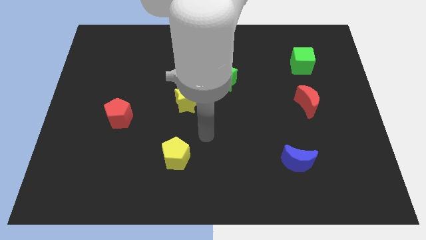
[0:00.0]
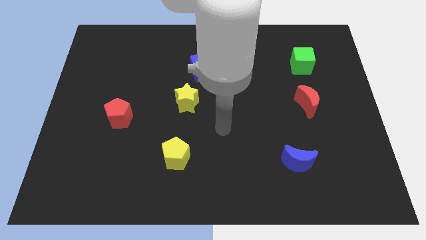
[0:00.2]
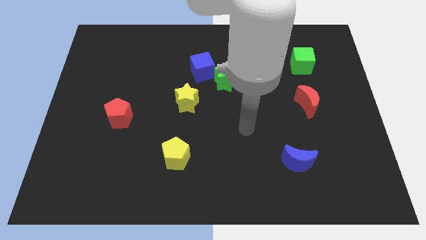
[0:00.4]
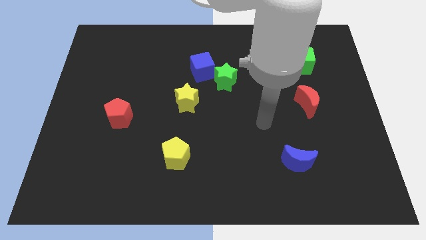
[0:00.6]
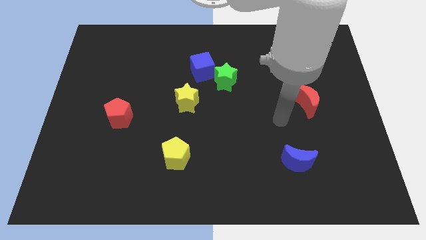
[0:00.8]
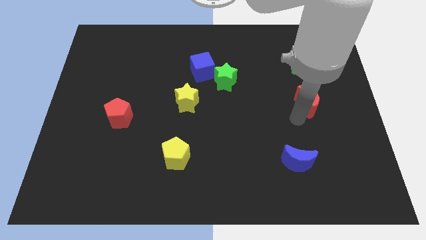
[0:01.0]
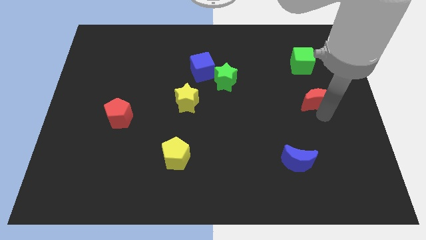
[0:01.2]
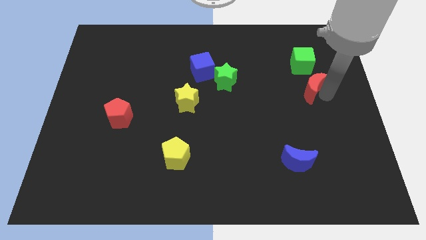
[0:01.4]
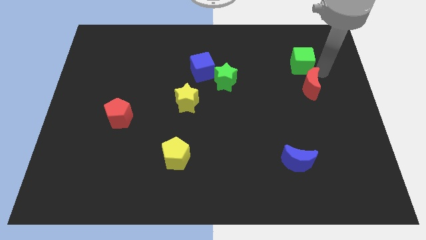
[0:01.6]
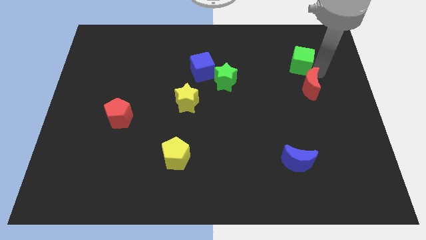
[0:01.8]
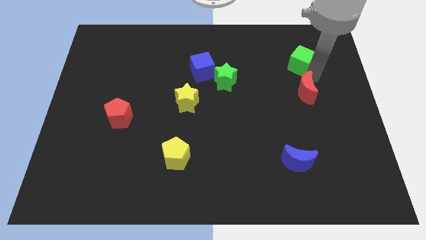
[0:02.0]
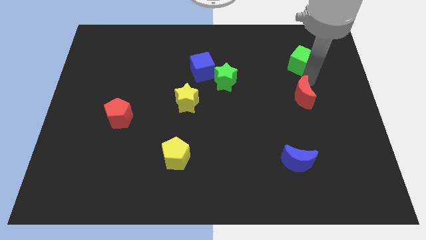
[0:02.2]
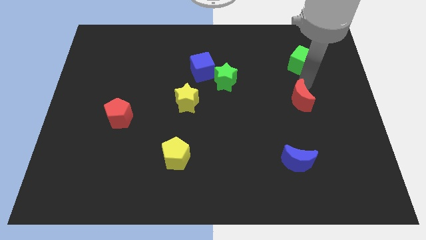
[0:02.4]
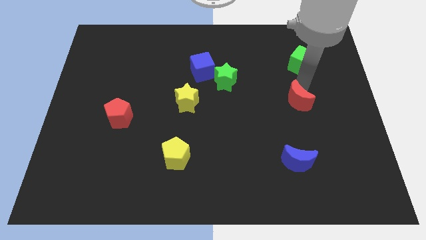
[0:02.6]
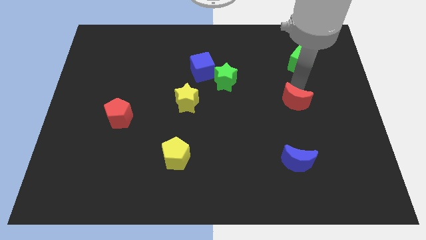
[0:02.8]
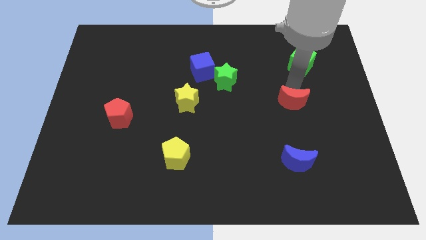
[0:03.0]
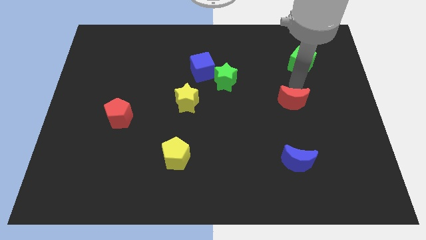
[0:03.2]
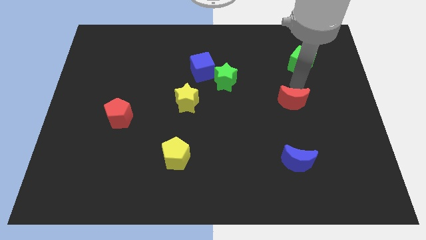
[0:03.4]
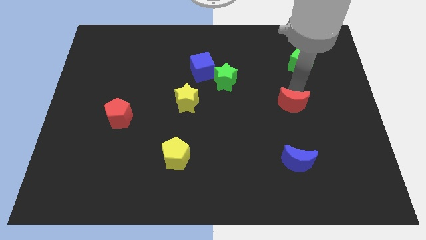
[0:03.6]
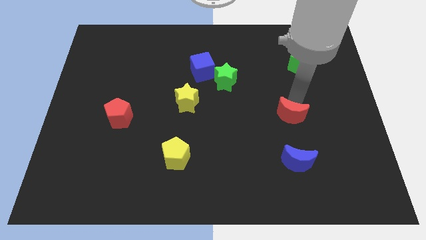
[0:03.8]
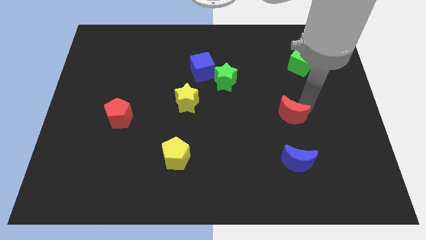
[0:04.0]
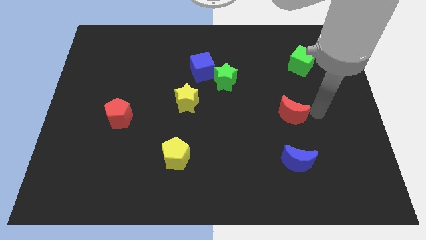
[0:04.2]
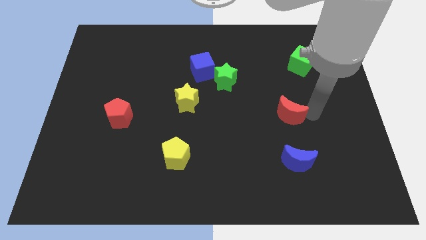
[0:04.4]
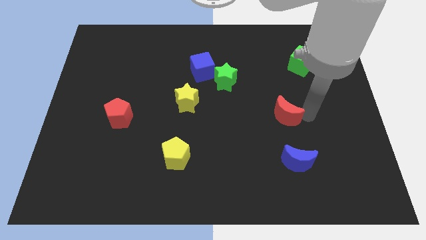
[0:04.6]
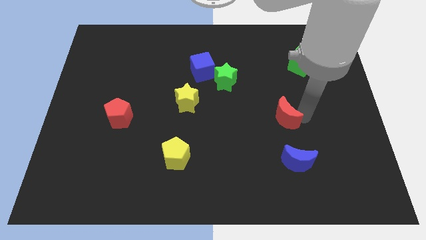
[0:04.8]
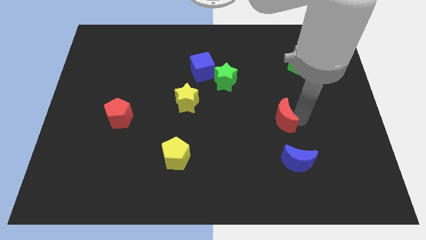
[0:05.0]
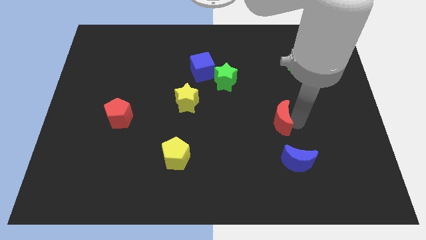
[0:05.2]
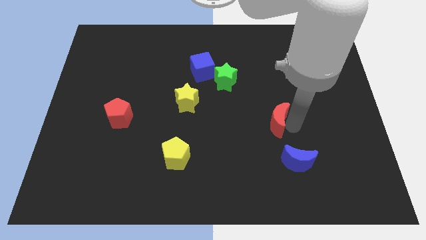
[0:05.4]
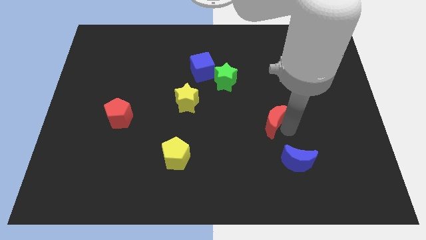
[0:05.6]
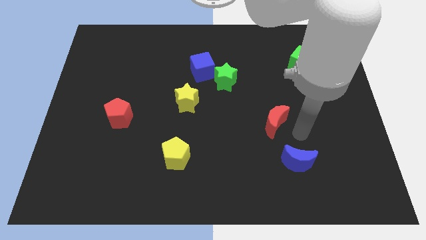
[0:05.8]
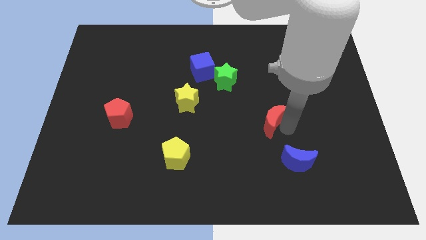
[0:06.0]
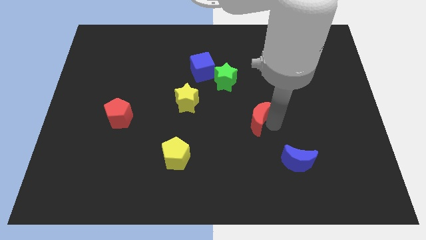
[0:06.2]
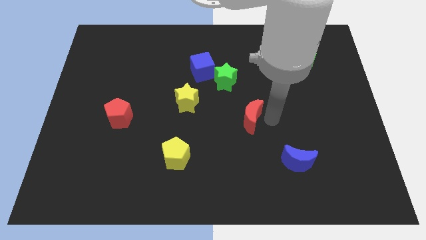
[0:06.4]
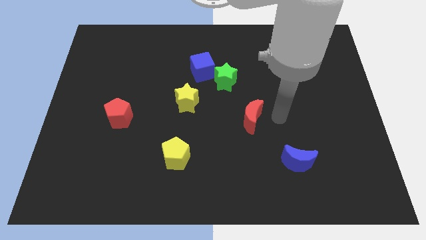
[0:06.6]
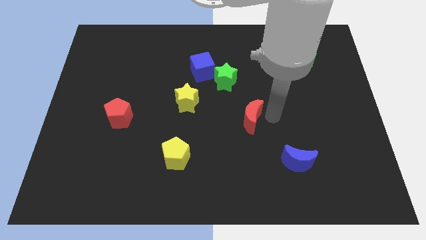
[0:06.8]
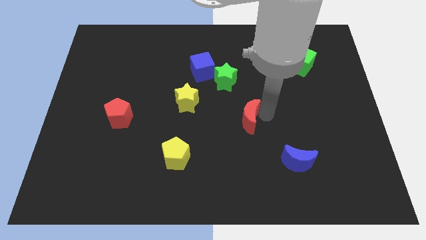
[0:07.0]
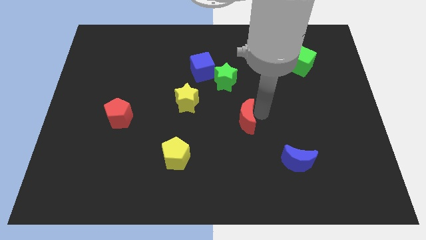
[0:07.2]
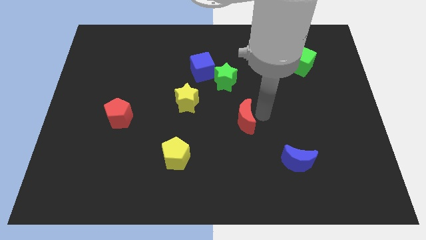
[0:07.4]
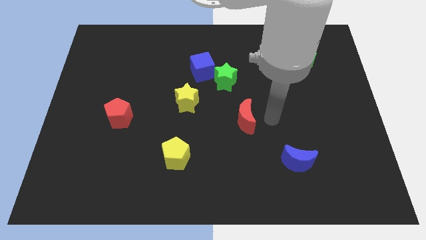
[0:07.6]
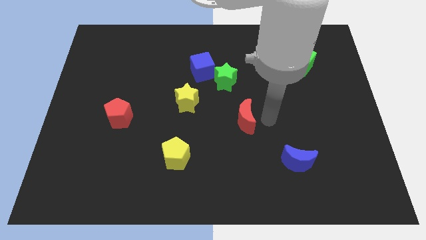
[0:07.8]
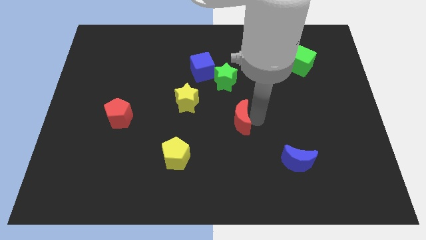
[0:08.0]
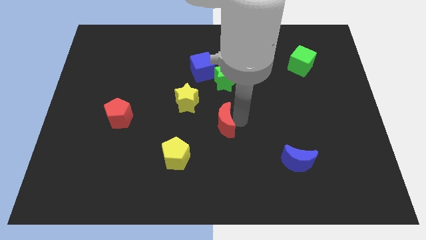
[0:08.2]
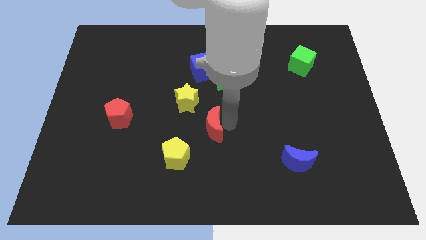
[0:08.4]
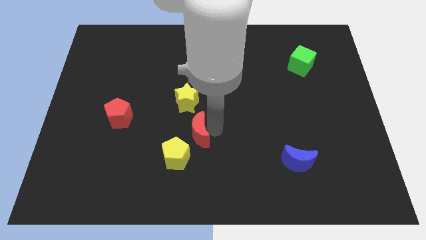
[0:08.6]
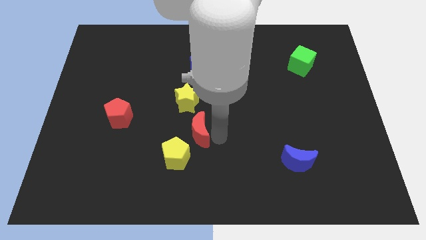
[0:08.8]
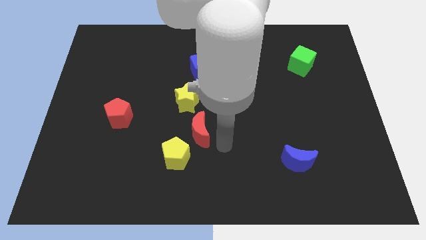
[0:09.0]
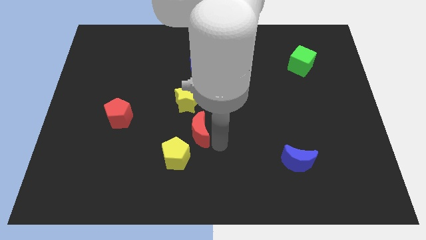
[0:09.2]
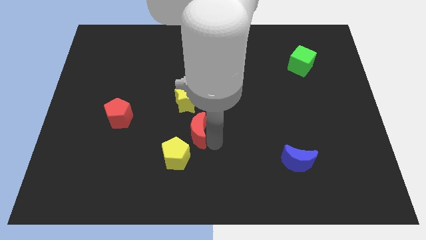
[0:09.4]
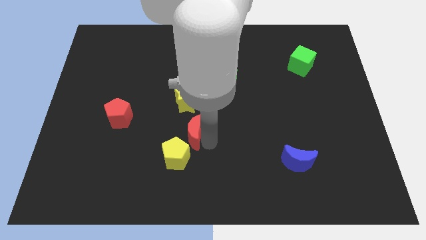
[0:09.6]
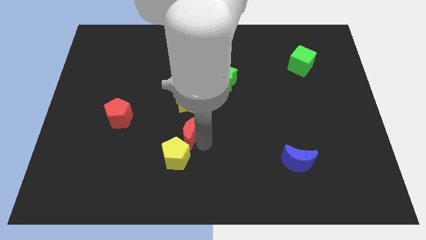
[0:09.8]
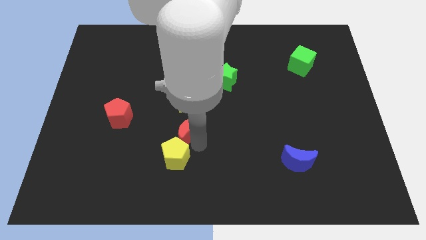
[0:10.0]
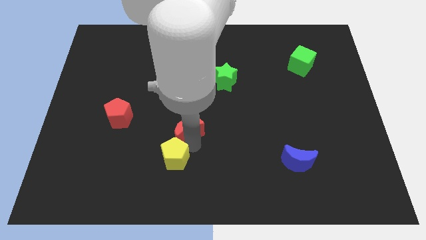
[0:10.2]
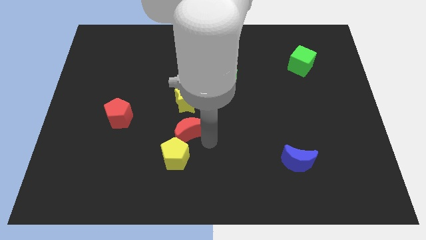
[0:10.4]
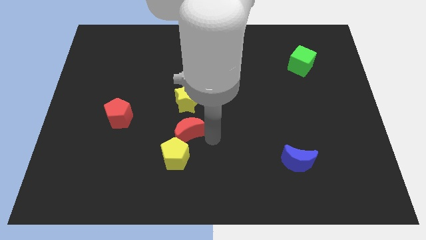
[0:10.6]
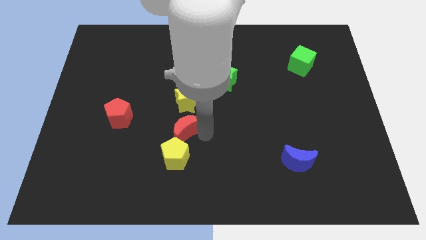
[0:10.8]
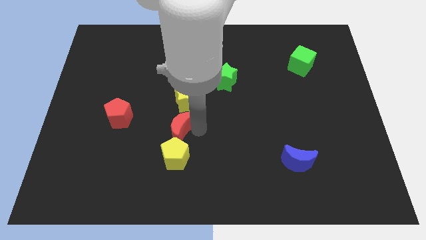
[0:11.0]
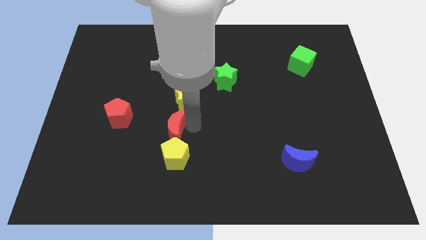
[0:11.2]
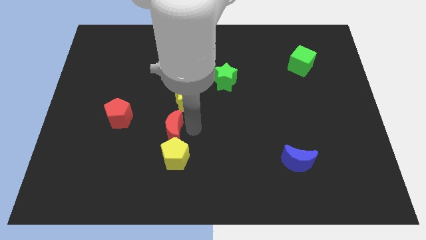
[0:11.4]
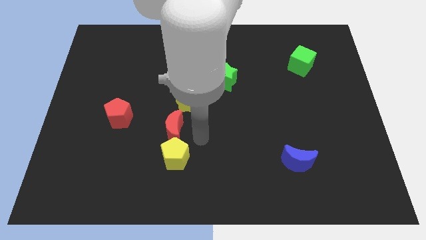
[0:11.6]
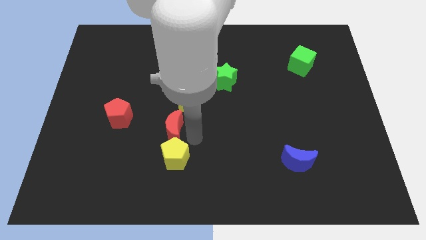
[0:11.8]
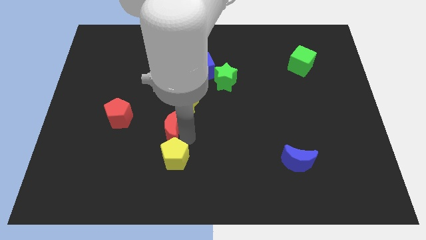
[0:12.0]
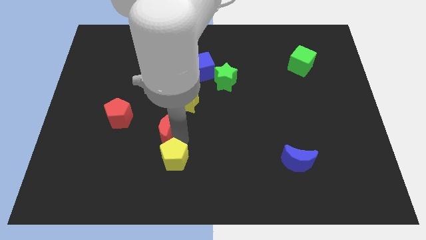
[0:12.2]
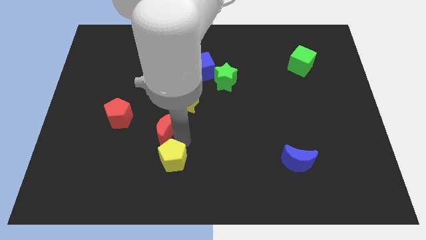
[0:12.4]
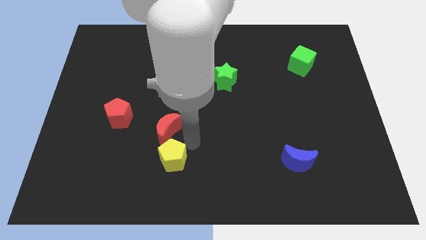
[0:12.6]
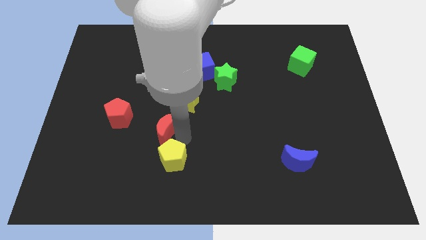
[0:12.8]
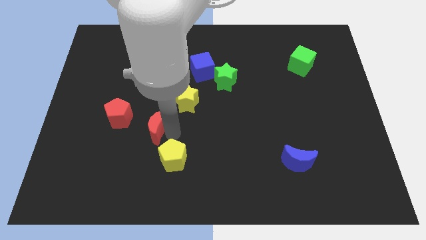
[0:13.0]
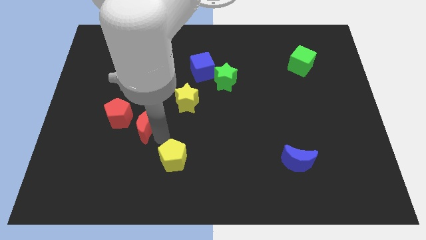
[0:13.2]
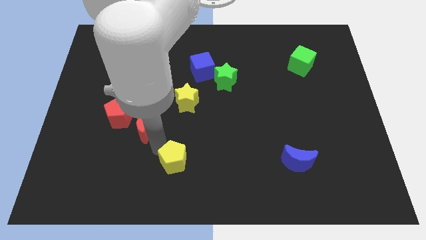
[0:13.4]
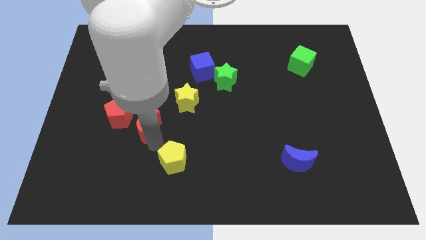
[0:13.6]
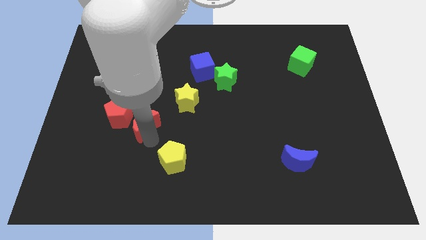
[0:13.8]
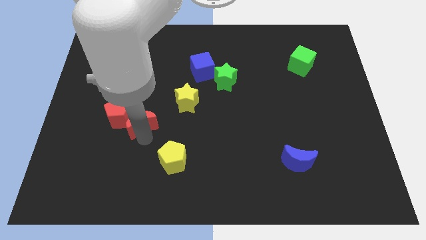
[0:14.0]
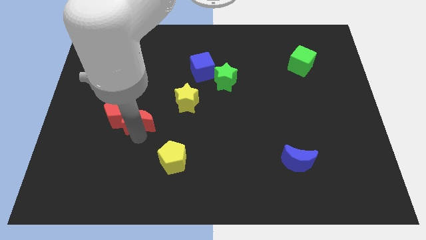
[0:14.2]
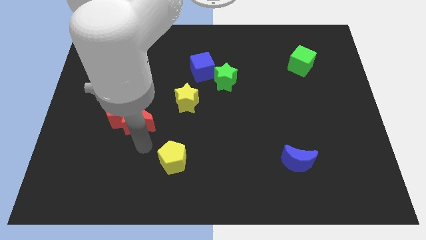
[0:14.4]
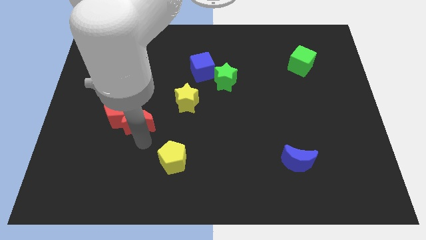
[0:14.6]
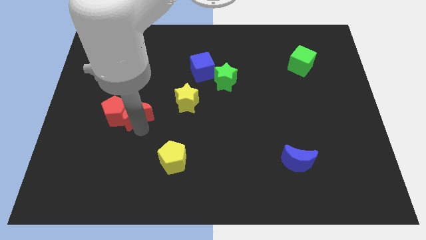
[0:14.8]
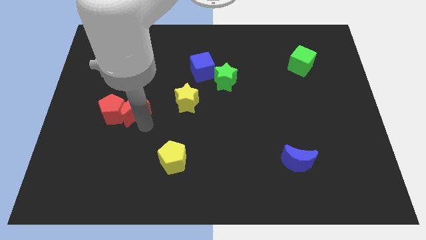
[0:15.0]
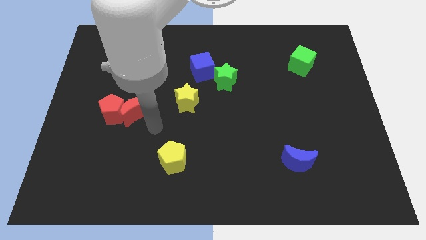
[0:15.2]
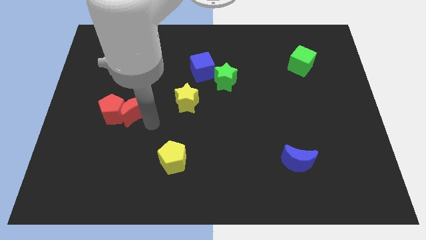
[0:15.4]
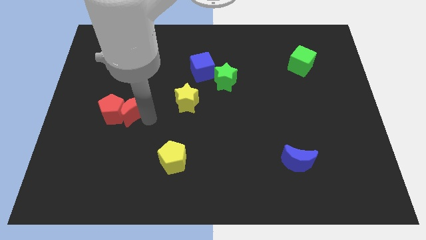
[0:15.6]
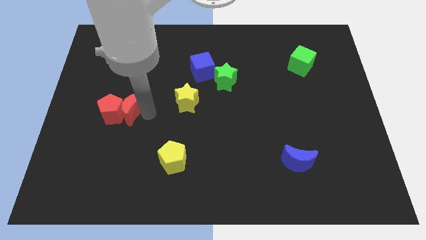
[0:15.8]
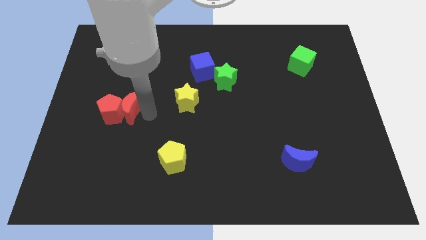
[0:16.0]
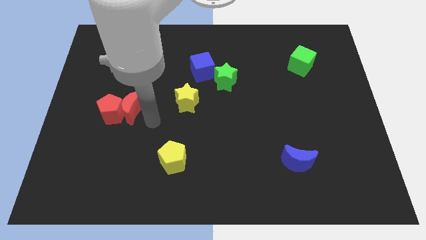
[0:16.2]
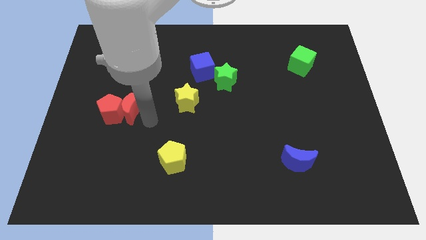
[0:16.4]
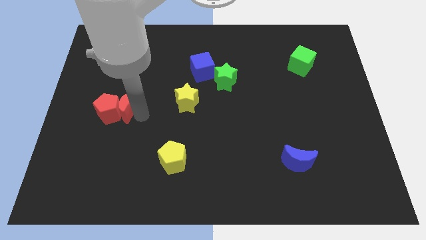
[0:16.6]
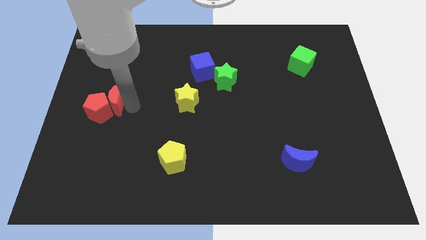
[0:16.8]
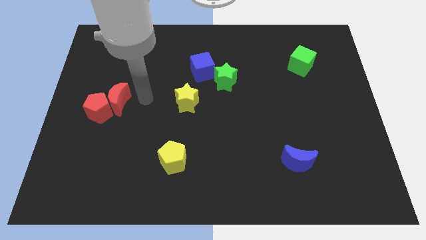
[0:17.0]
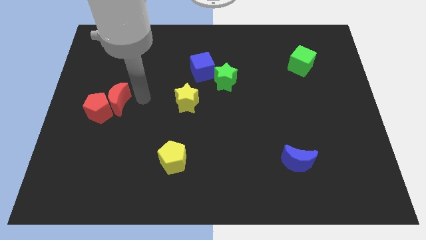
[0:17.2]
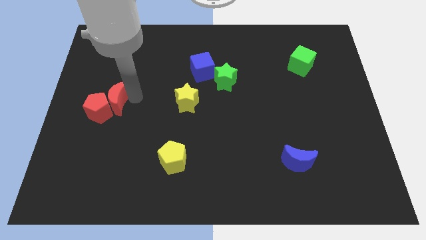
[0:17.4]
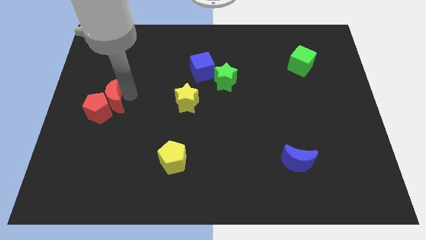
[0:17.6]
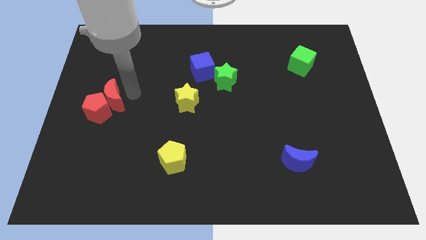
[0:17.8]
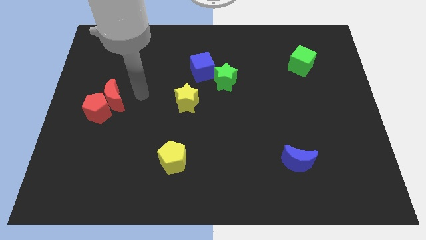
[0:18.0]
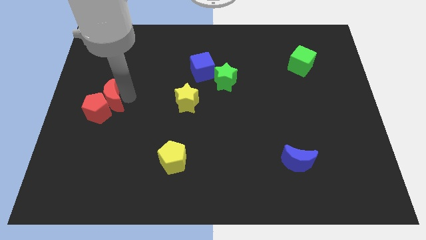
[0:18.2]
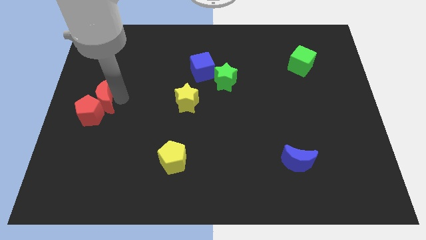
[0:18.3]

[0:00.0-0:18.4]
slide the red moon to the center left
